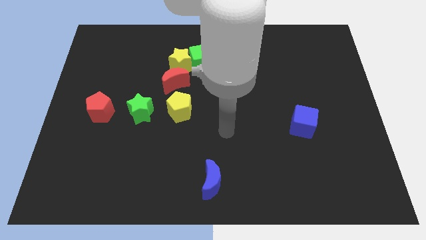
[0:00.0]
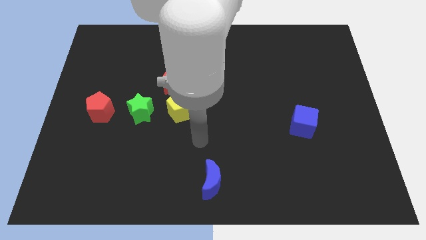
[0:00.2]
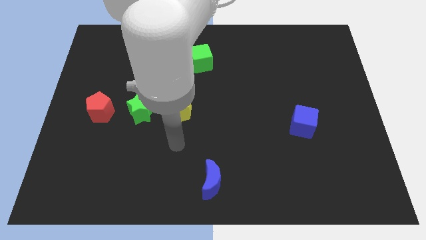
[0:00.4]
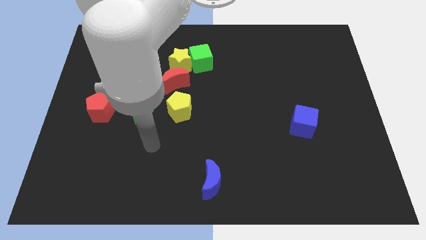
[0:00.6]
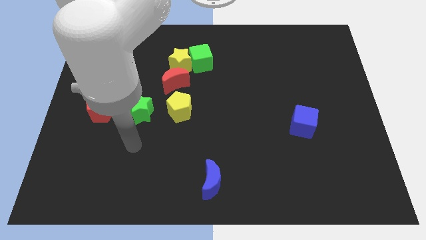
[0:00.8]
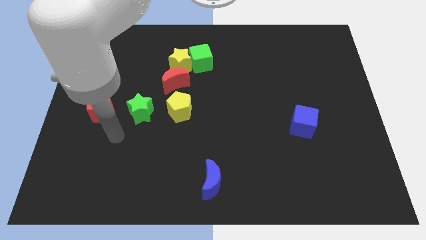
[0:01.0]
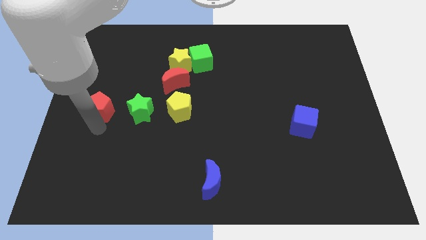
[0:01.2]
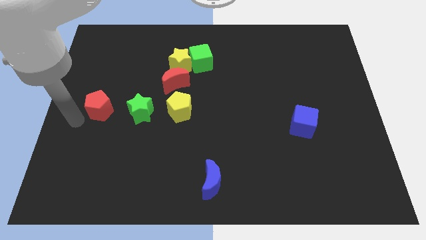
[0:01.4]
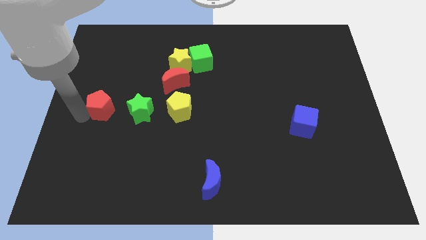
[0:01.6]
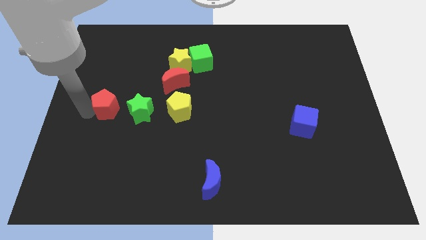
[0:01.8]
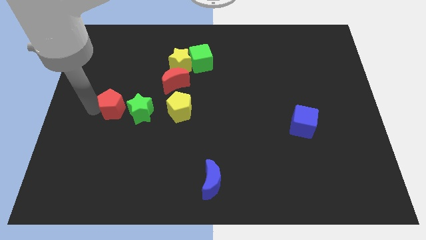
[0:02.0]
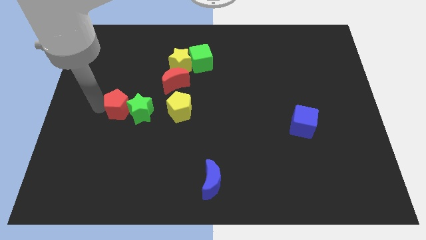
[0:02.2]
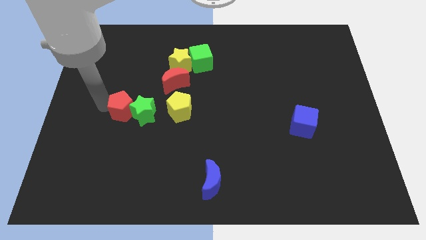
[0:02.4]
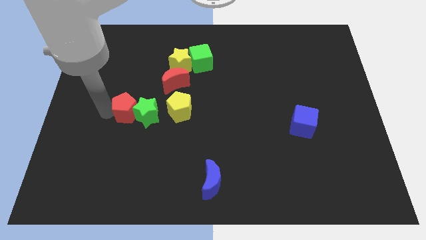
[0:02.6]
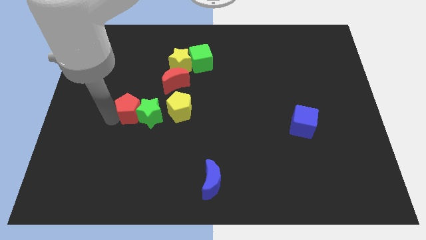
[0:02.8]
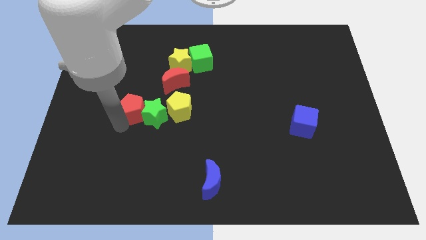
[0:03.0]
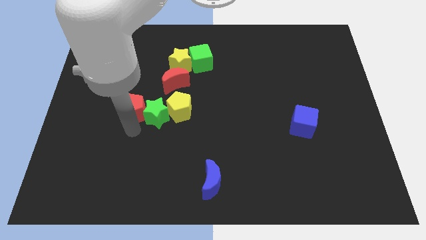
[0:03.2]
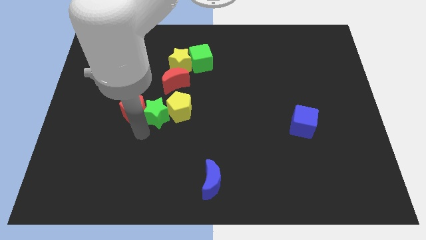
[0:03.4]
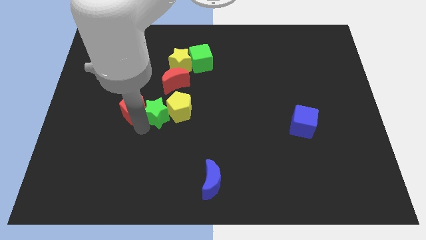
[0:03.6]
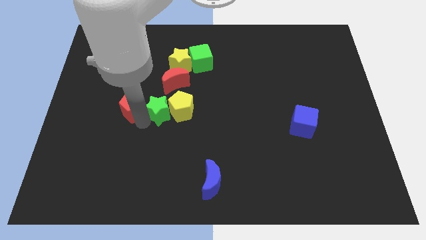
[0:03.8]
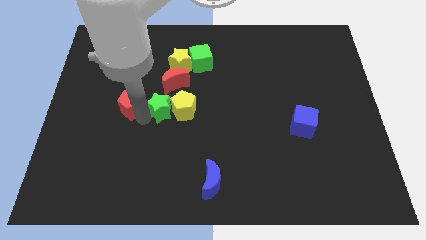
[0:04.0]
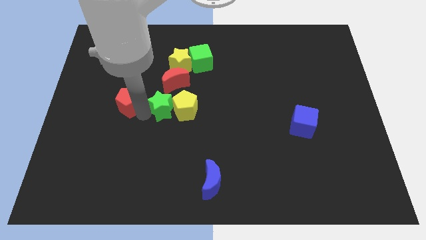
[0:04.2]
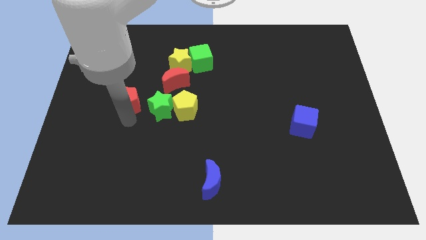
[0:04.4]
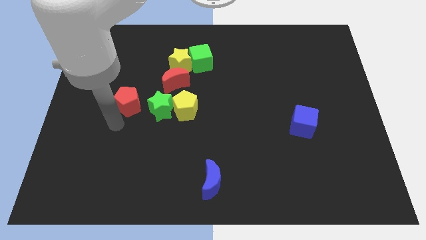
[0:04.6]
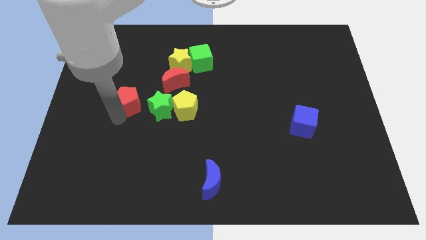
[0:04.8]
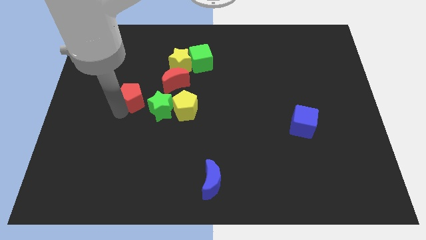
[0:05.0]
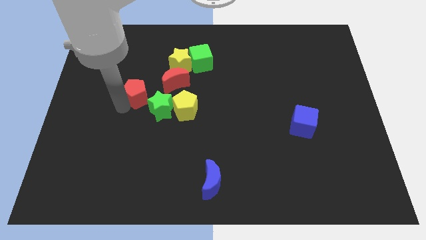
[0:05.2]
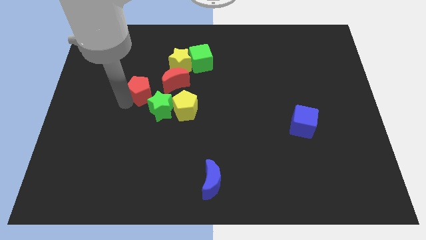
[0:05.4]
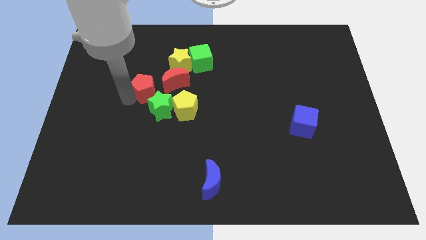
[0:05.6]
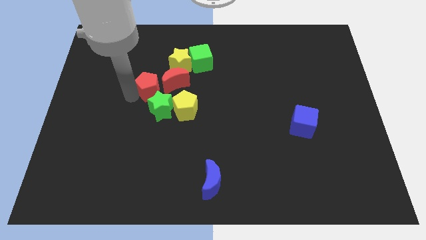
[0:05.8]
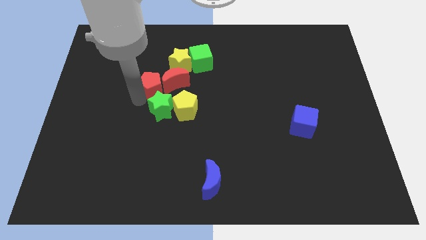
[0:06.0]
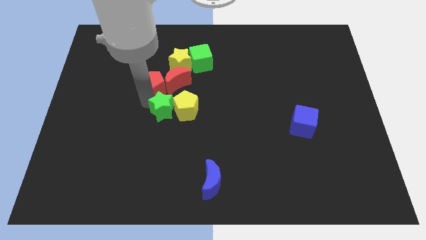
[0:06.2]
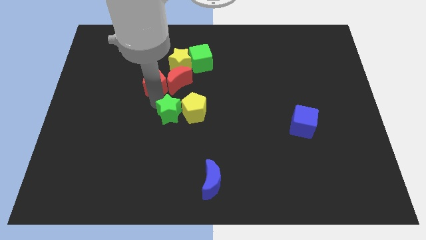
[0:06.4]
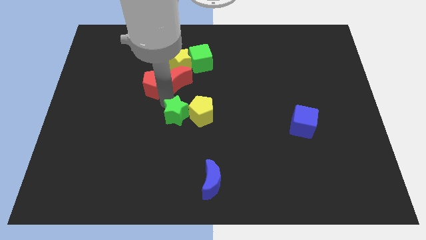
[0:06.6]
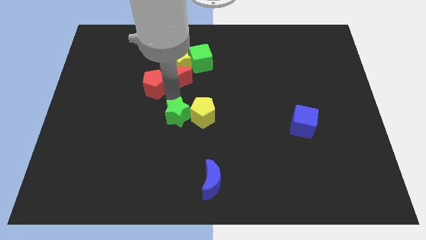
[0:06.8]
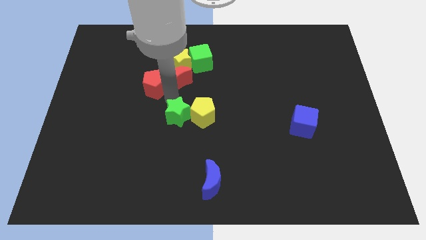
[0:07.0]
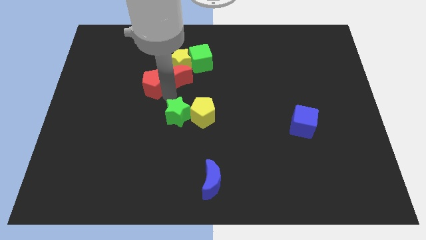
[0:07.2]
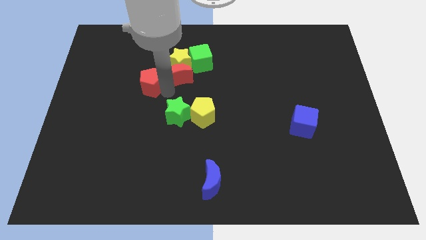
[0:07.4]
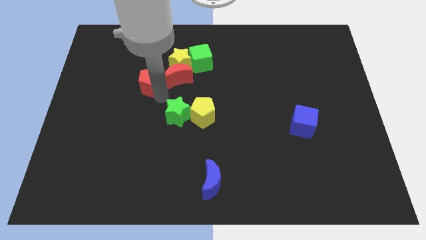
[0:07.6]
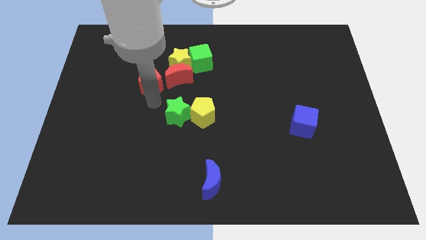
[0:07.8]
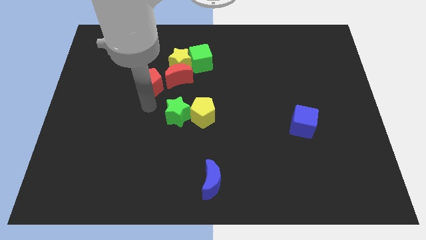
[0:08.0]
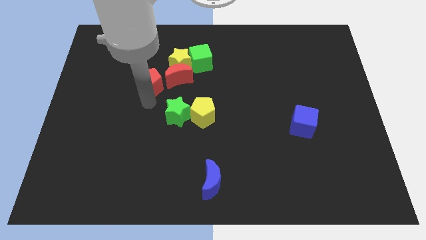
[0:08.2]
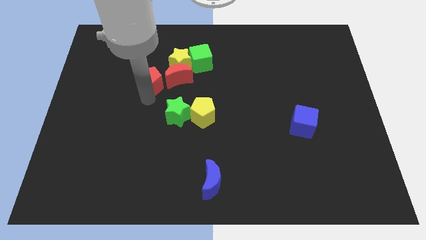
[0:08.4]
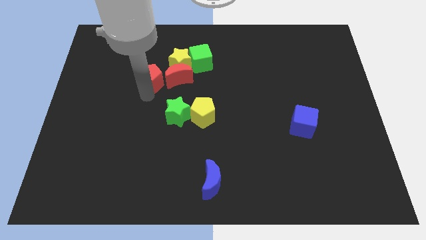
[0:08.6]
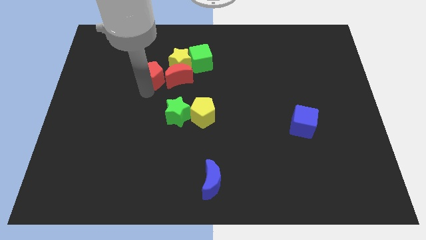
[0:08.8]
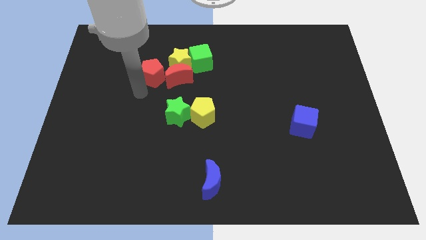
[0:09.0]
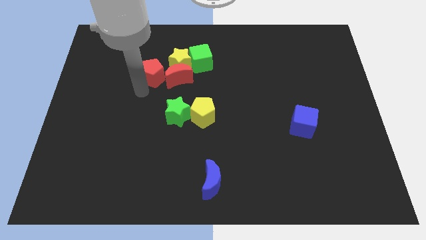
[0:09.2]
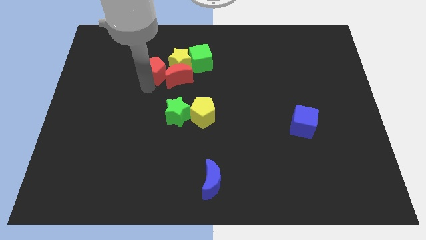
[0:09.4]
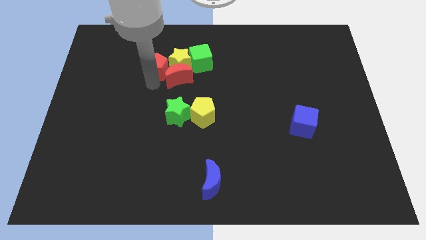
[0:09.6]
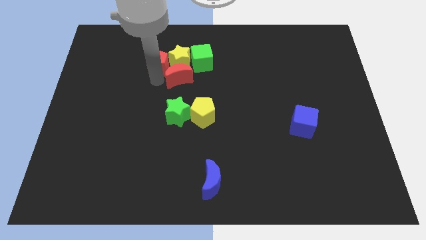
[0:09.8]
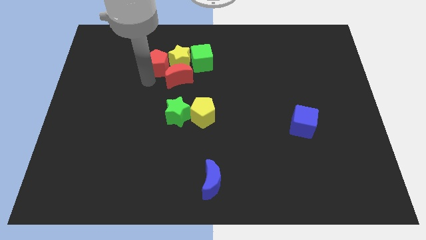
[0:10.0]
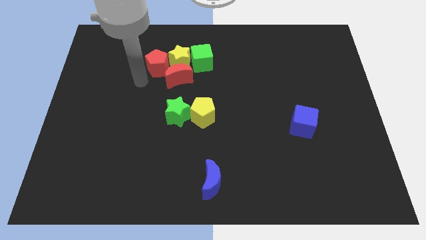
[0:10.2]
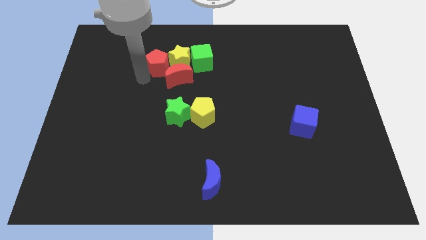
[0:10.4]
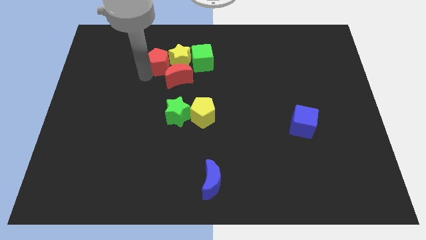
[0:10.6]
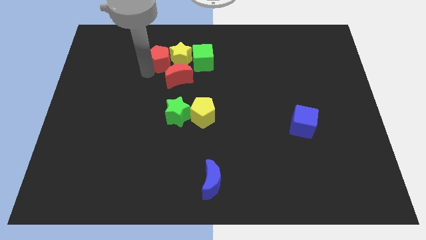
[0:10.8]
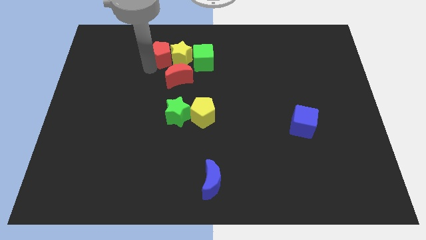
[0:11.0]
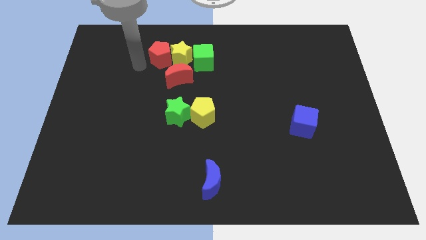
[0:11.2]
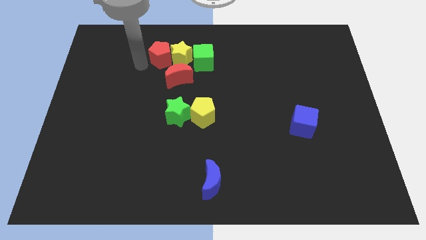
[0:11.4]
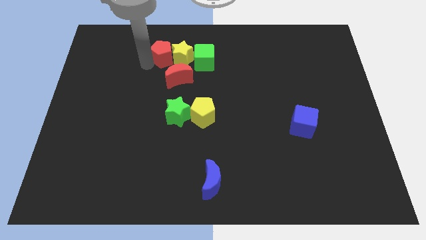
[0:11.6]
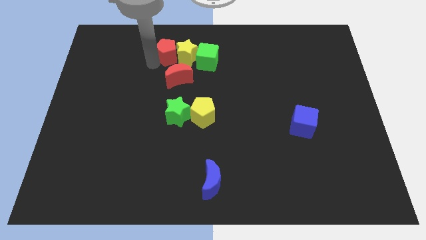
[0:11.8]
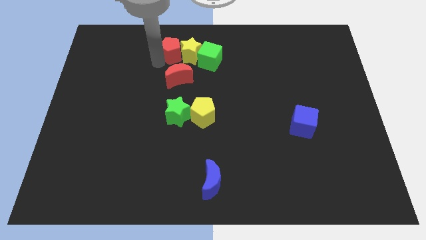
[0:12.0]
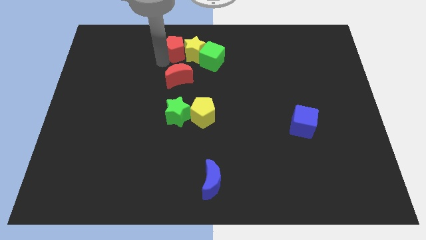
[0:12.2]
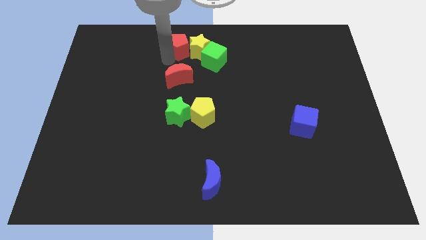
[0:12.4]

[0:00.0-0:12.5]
slide the red pentagon to the top

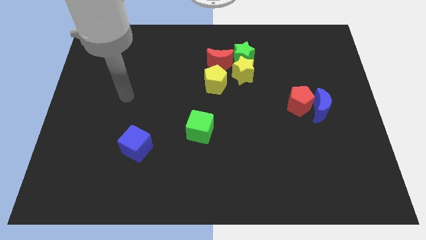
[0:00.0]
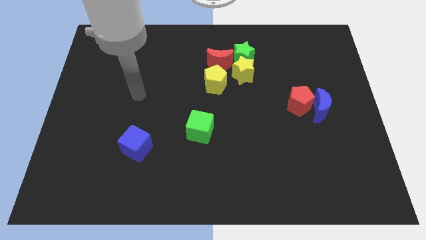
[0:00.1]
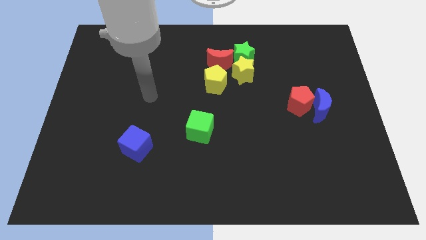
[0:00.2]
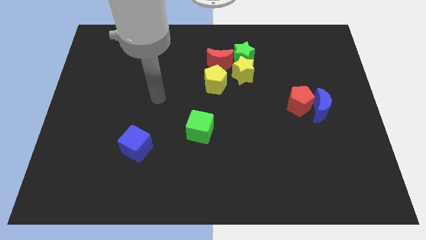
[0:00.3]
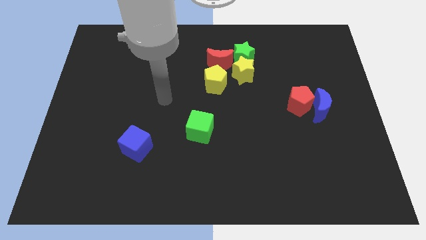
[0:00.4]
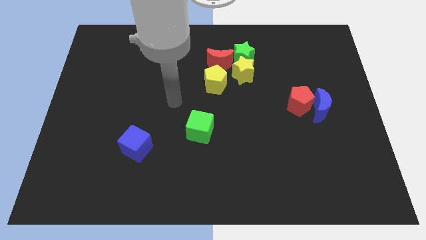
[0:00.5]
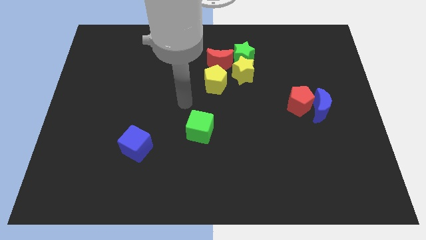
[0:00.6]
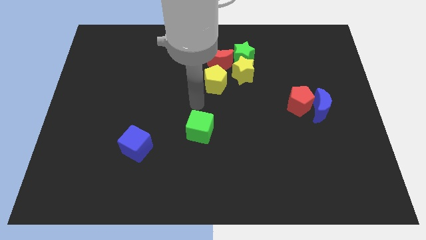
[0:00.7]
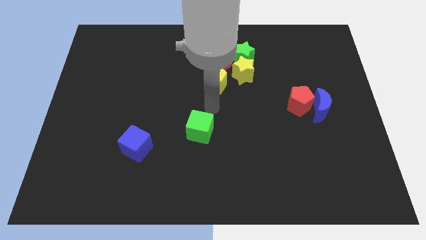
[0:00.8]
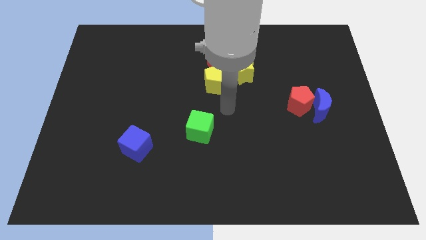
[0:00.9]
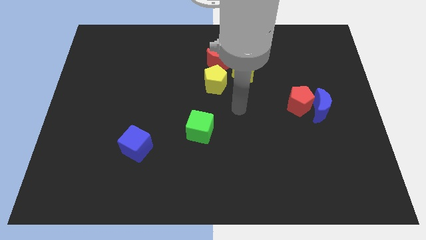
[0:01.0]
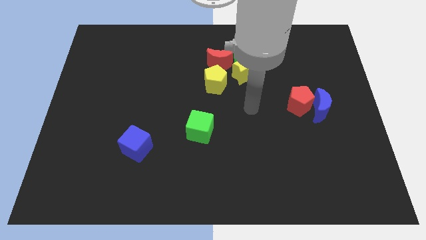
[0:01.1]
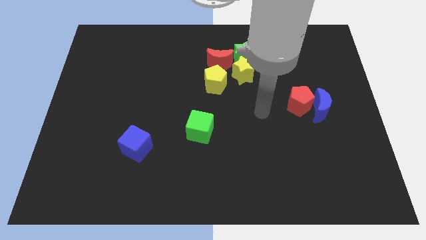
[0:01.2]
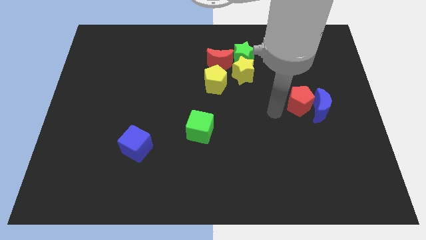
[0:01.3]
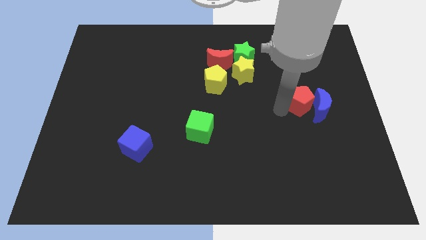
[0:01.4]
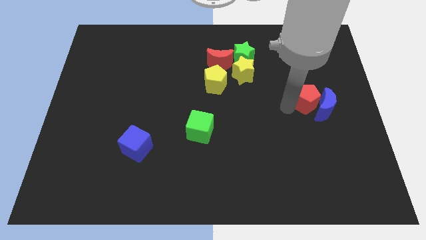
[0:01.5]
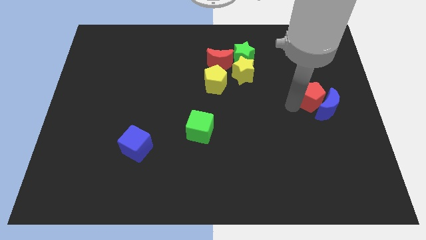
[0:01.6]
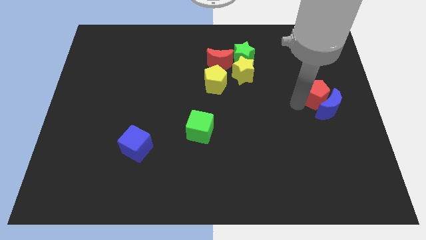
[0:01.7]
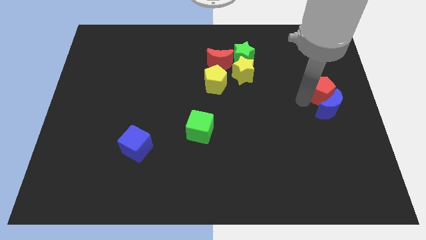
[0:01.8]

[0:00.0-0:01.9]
put the red pentagon to the center right
